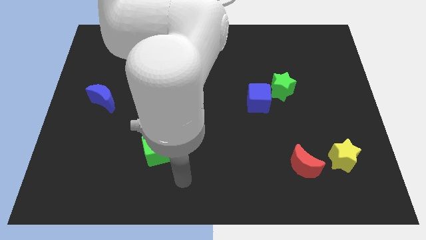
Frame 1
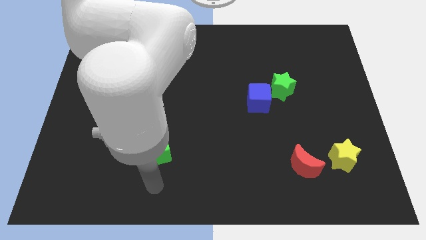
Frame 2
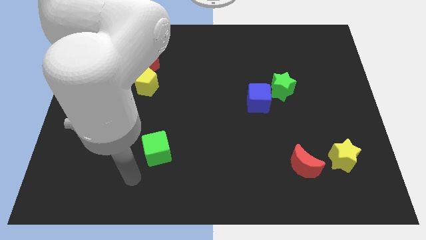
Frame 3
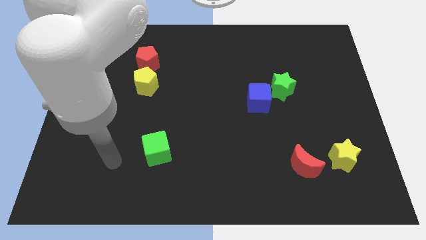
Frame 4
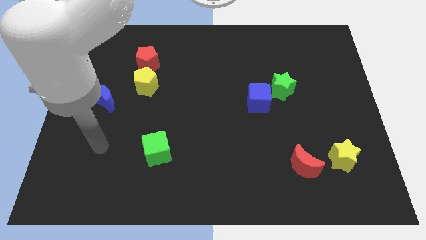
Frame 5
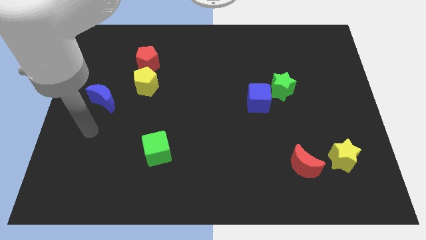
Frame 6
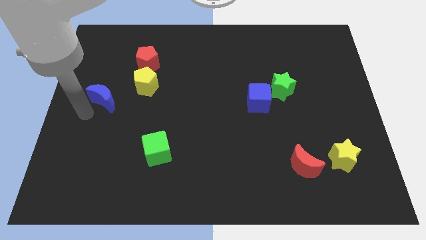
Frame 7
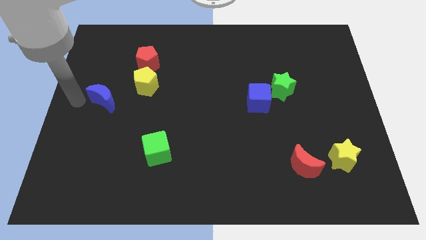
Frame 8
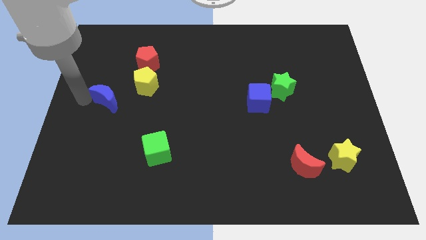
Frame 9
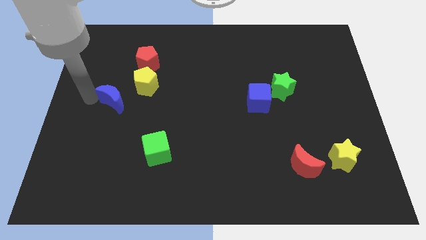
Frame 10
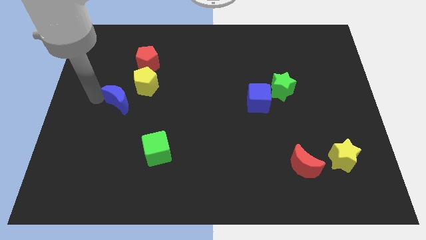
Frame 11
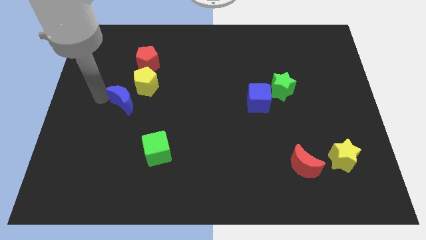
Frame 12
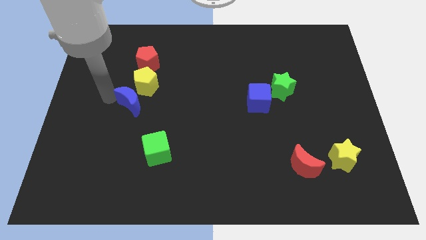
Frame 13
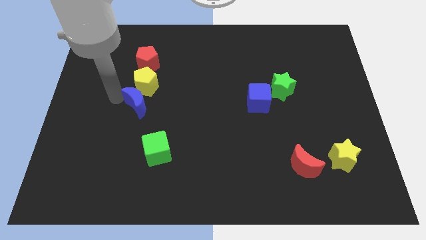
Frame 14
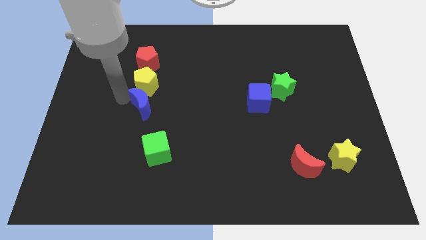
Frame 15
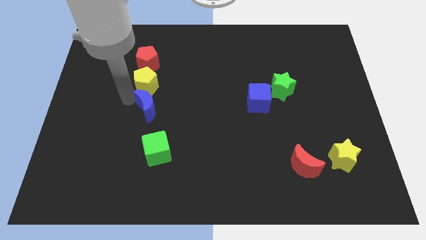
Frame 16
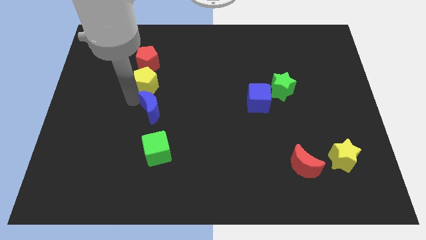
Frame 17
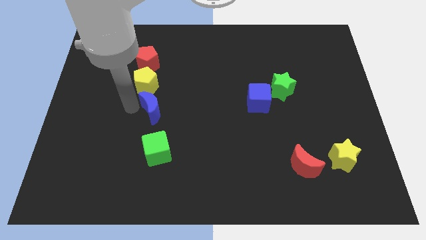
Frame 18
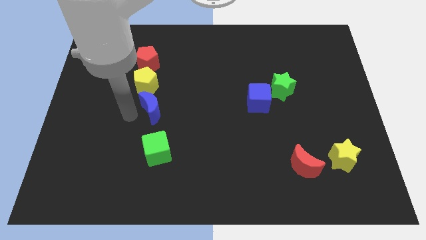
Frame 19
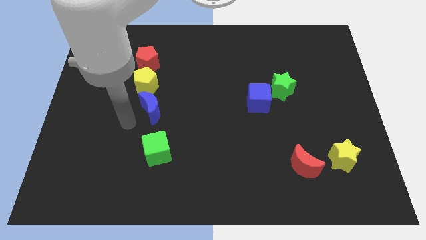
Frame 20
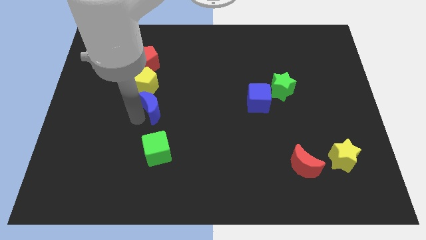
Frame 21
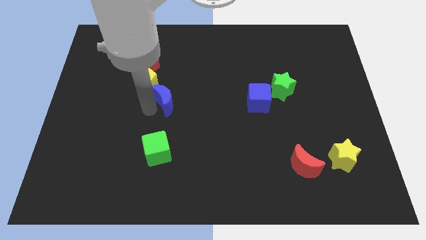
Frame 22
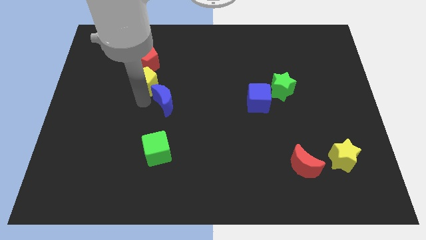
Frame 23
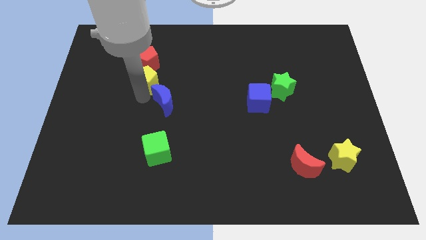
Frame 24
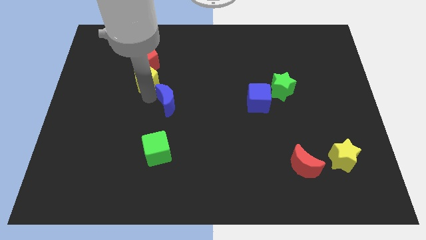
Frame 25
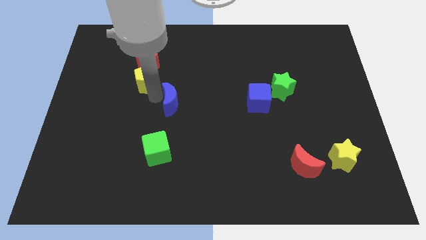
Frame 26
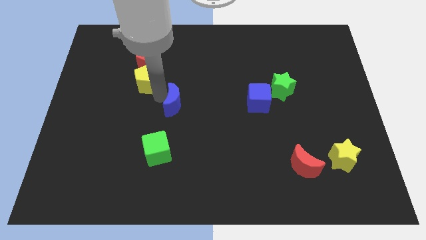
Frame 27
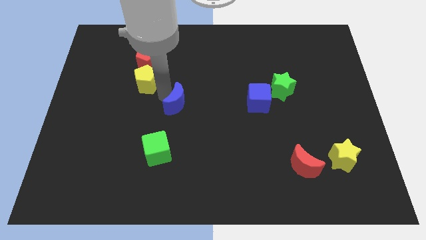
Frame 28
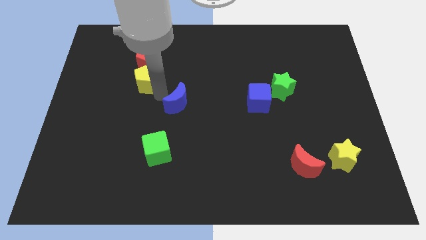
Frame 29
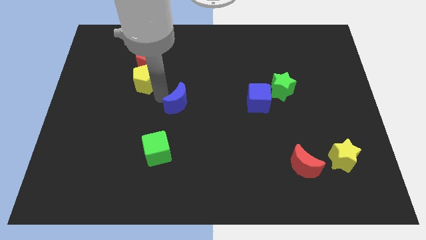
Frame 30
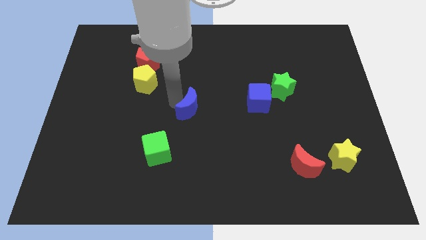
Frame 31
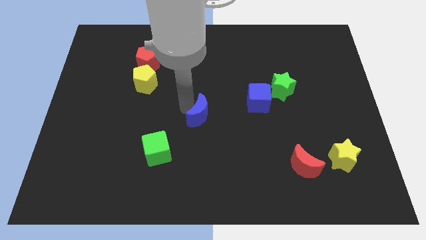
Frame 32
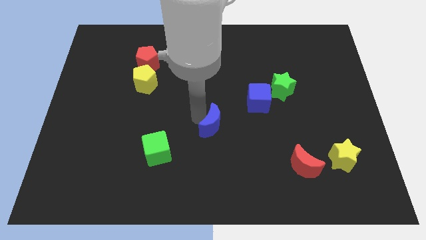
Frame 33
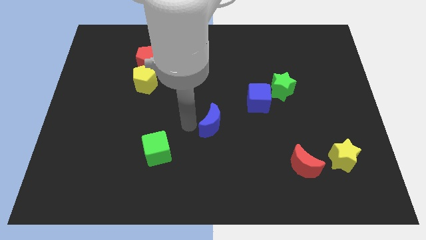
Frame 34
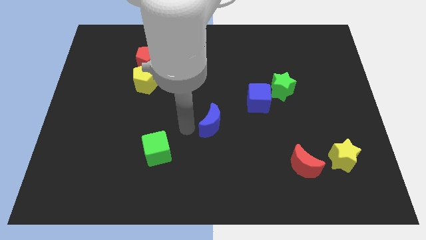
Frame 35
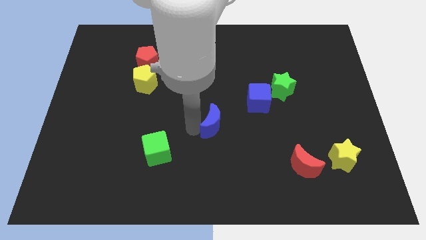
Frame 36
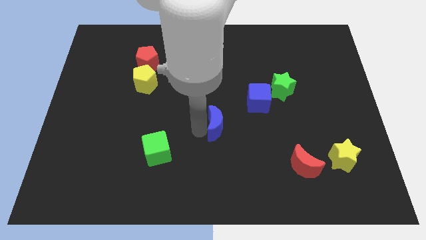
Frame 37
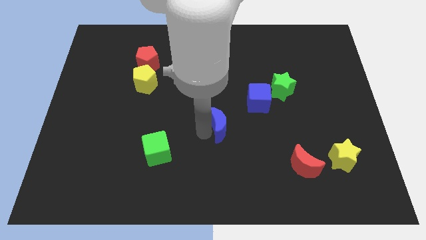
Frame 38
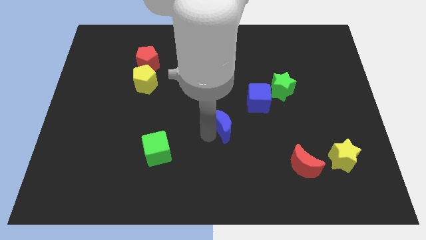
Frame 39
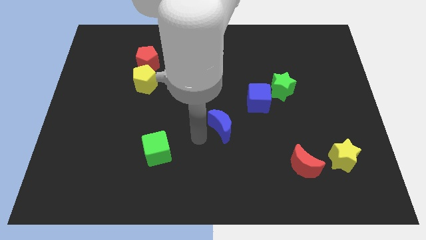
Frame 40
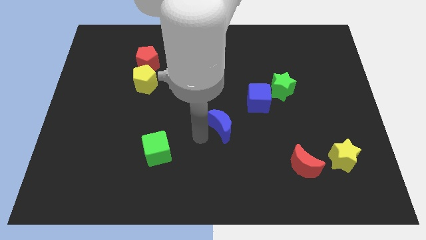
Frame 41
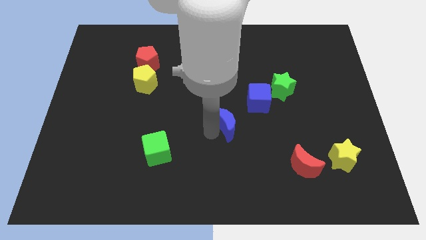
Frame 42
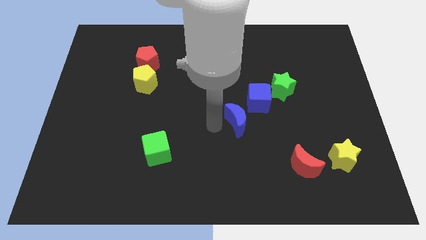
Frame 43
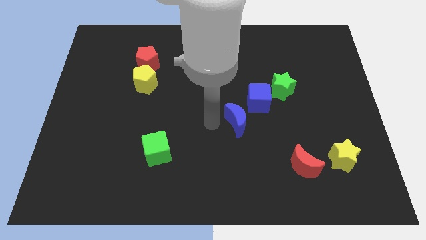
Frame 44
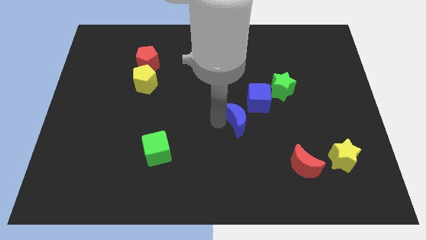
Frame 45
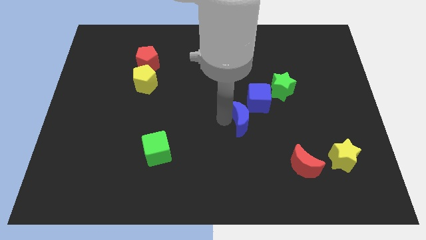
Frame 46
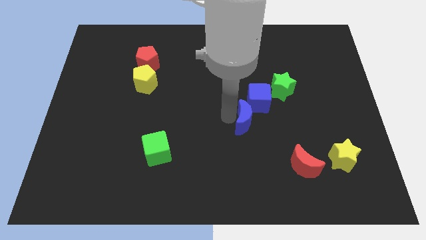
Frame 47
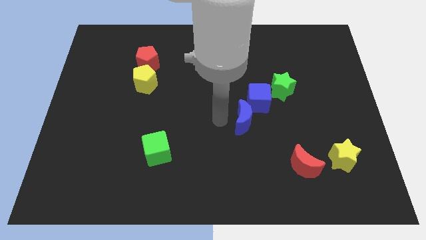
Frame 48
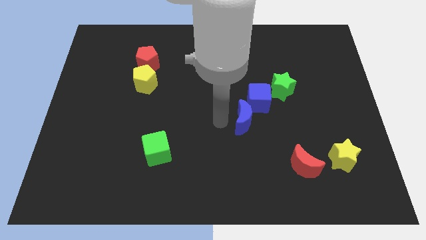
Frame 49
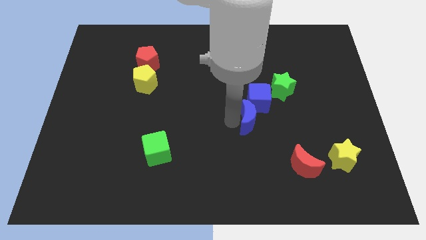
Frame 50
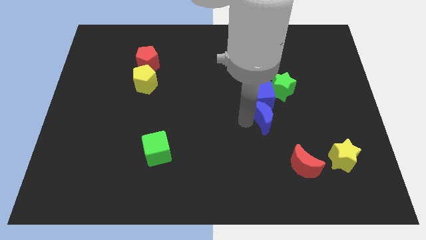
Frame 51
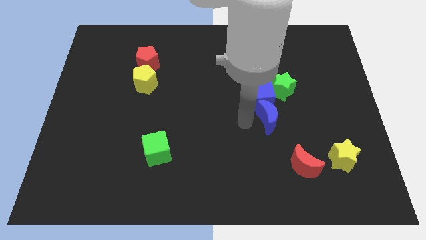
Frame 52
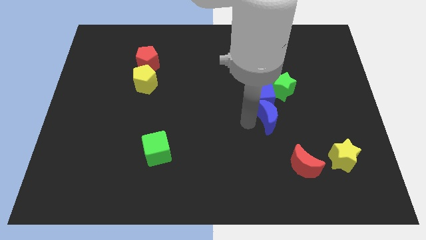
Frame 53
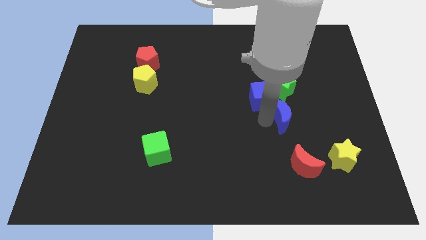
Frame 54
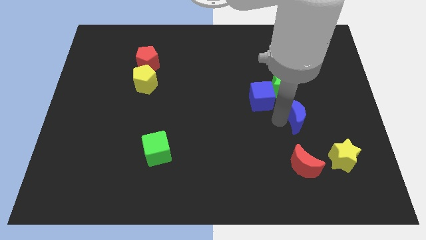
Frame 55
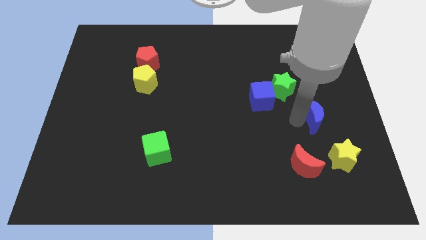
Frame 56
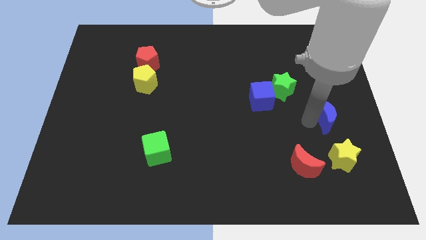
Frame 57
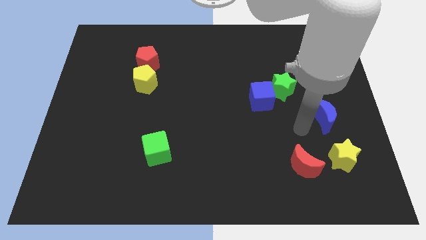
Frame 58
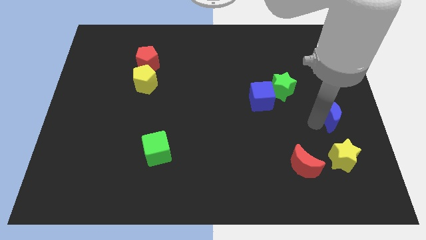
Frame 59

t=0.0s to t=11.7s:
slide the blue moon to the right side
